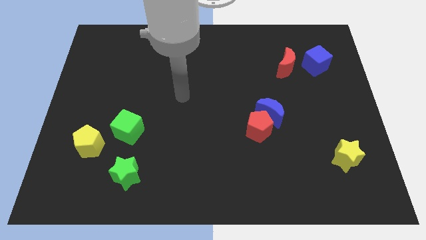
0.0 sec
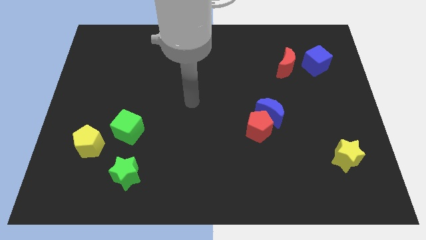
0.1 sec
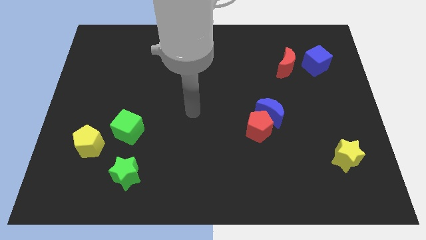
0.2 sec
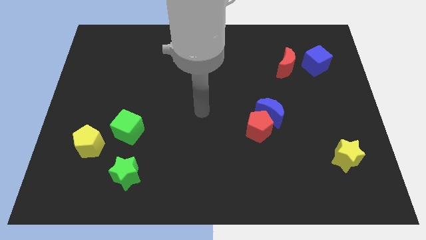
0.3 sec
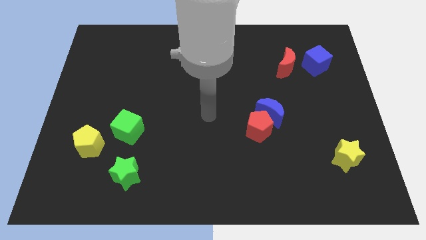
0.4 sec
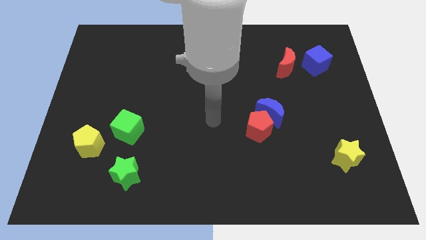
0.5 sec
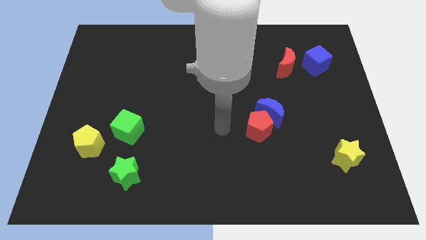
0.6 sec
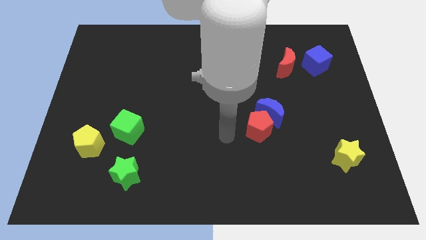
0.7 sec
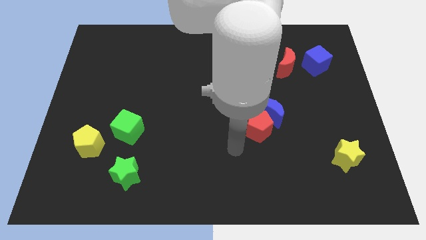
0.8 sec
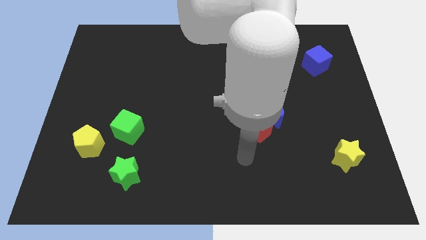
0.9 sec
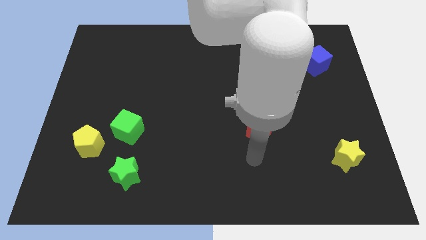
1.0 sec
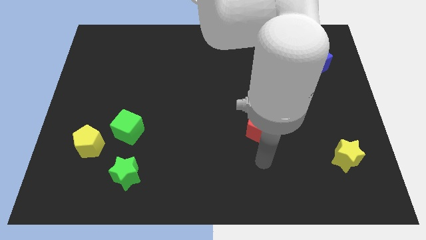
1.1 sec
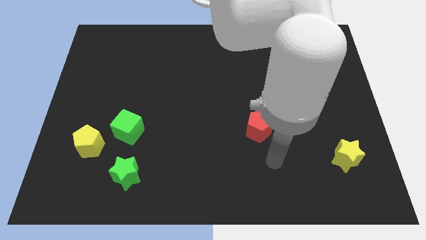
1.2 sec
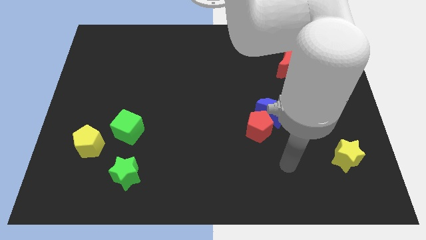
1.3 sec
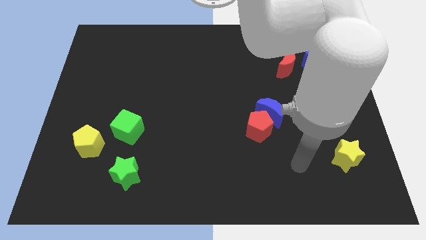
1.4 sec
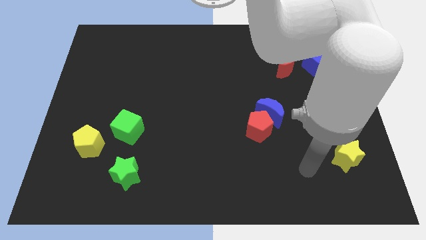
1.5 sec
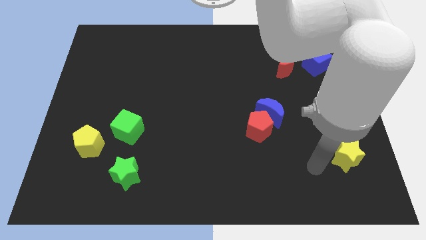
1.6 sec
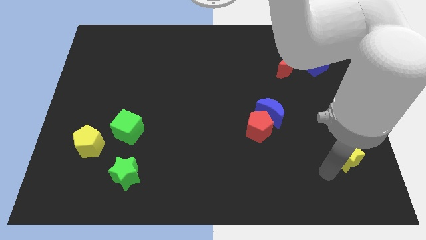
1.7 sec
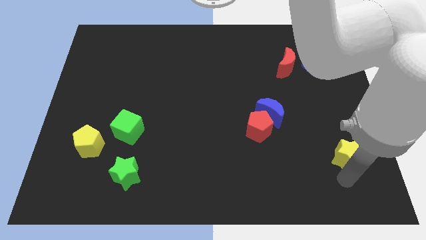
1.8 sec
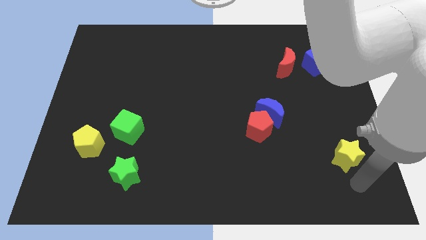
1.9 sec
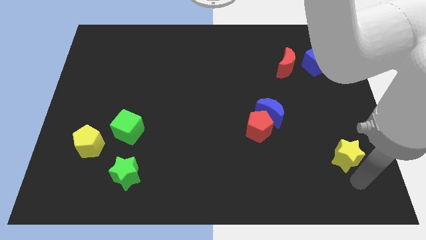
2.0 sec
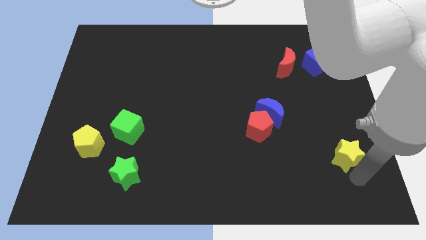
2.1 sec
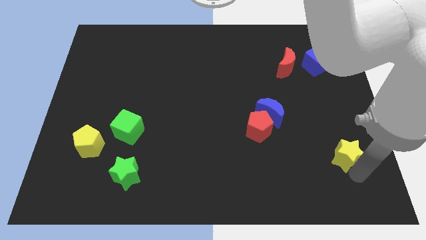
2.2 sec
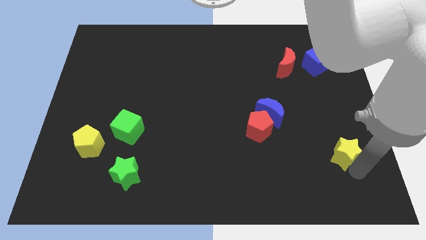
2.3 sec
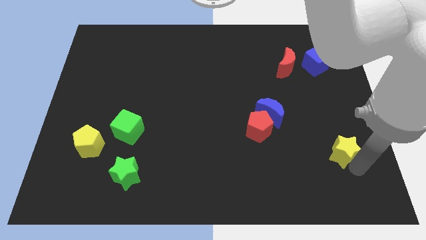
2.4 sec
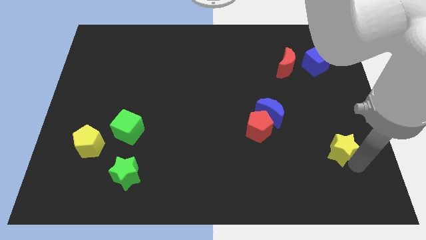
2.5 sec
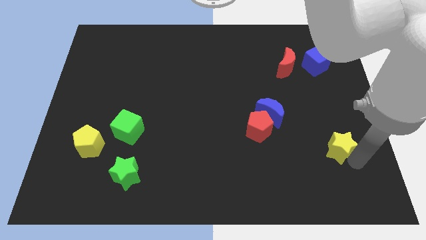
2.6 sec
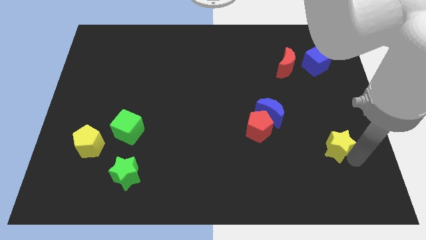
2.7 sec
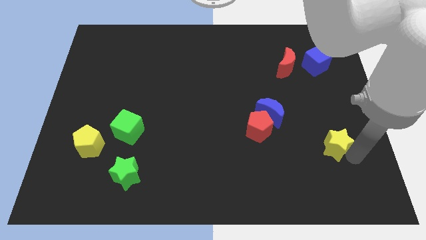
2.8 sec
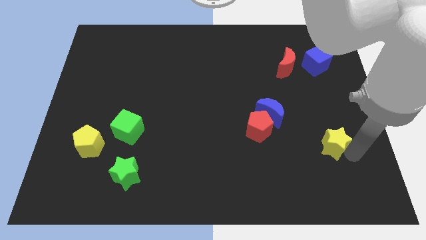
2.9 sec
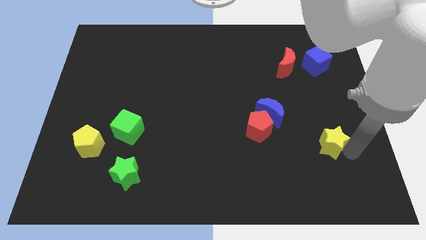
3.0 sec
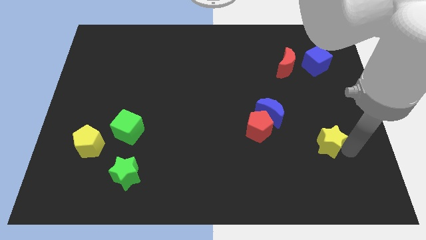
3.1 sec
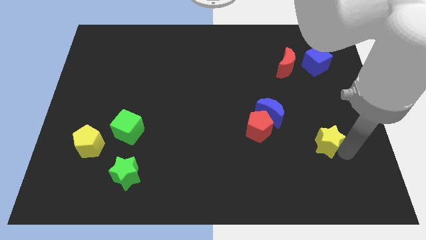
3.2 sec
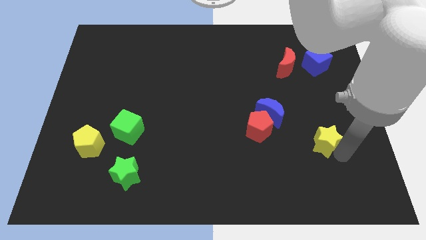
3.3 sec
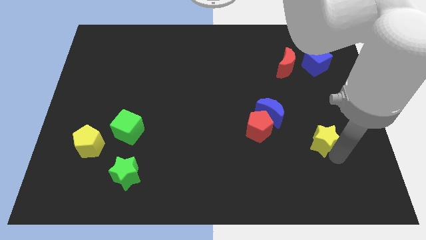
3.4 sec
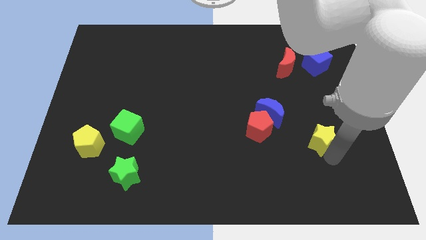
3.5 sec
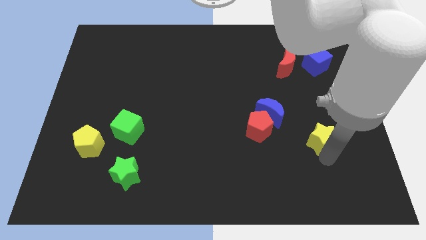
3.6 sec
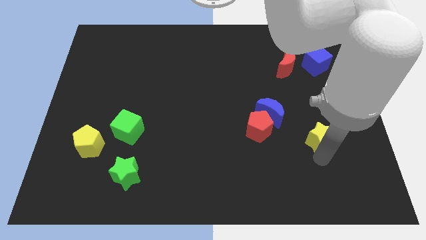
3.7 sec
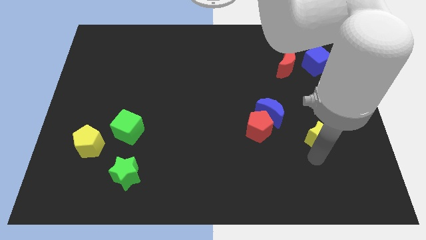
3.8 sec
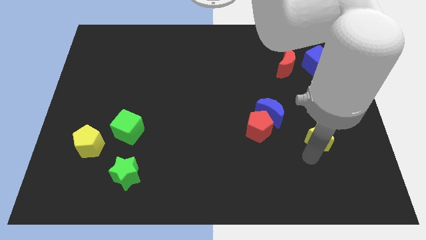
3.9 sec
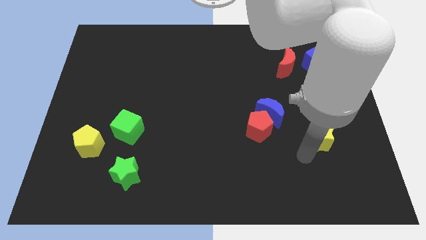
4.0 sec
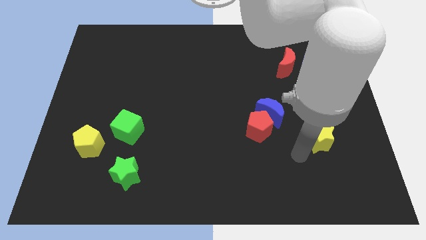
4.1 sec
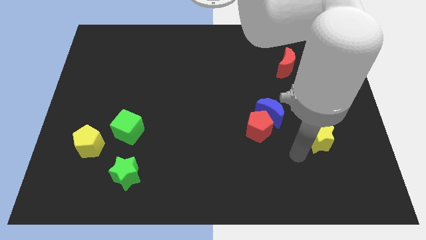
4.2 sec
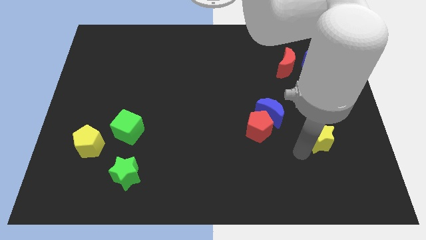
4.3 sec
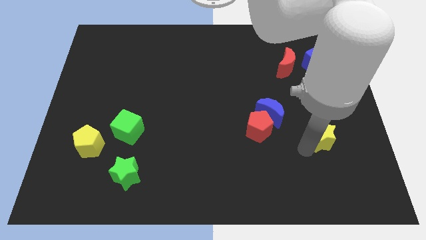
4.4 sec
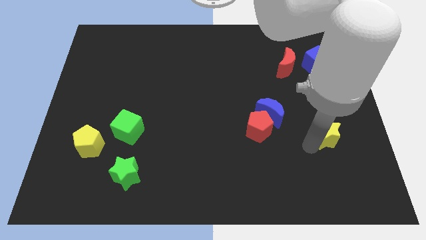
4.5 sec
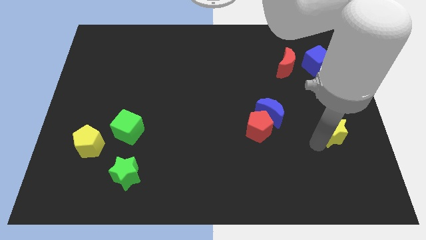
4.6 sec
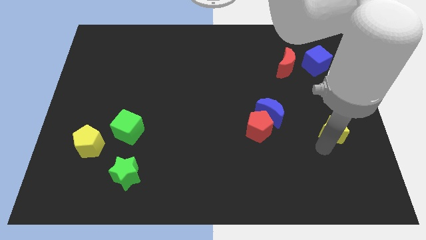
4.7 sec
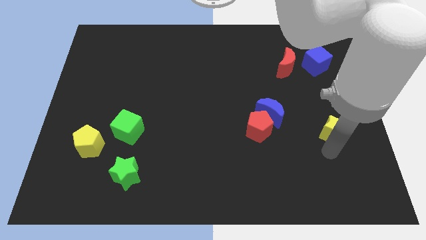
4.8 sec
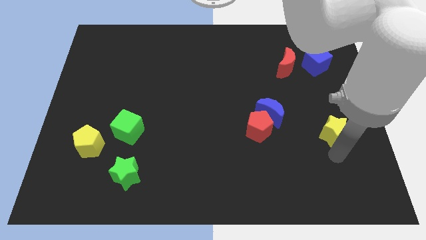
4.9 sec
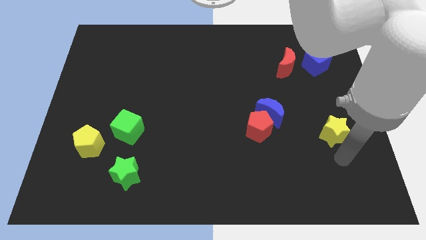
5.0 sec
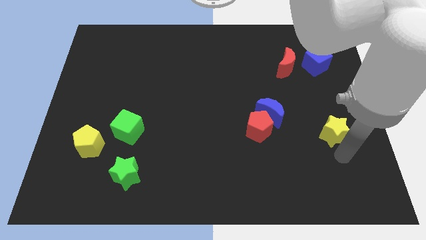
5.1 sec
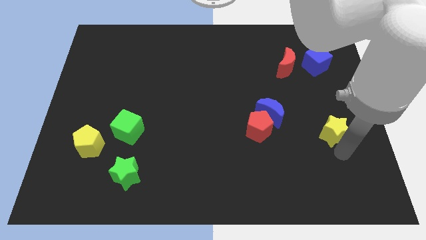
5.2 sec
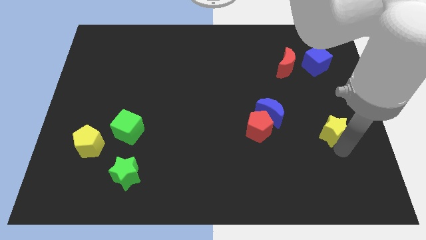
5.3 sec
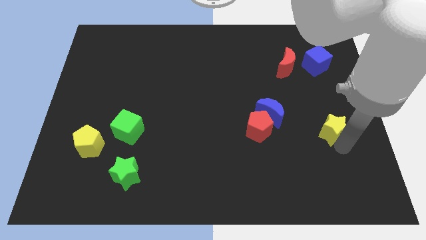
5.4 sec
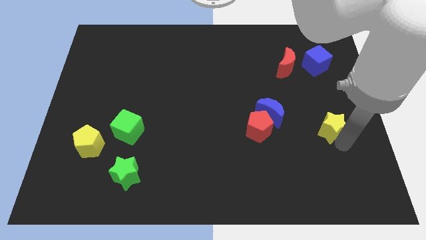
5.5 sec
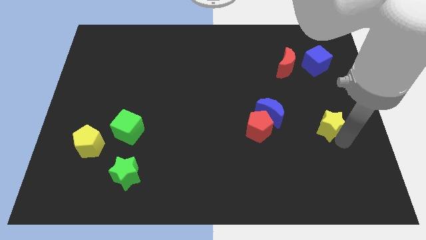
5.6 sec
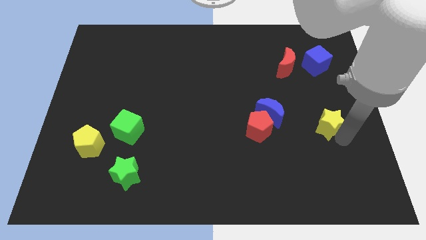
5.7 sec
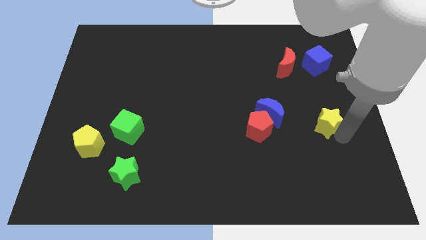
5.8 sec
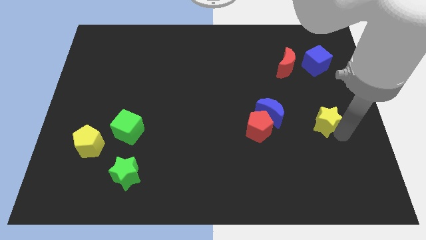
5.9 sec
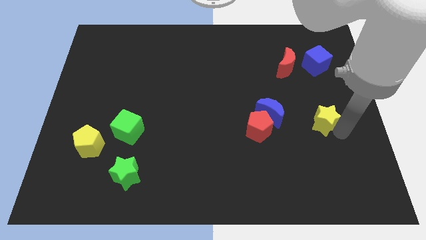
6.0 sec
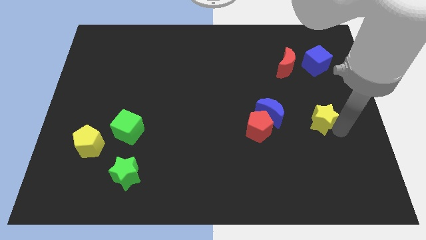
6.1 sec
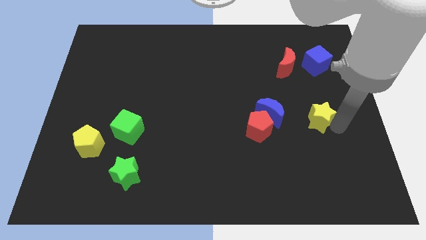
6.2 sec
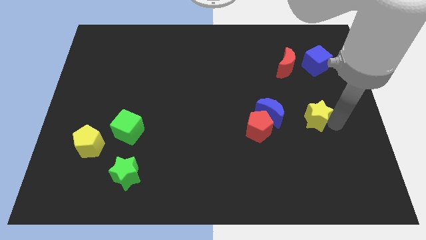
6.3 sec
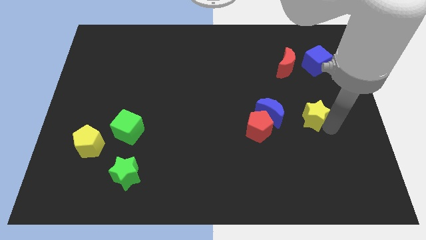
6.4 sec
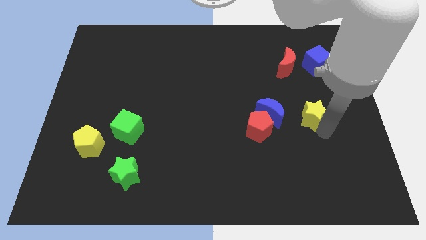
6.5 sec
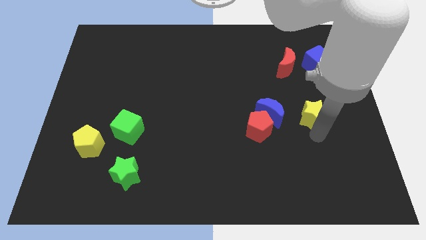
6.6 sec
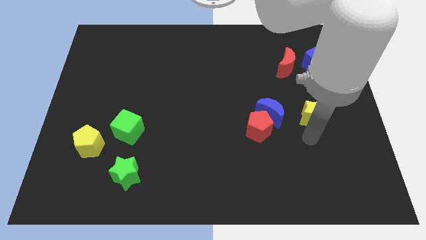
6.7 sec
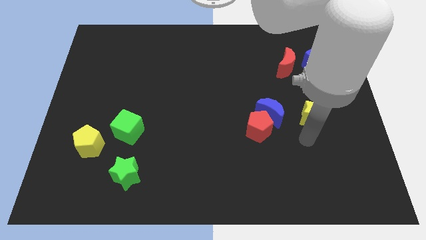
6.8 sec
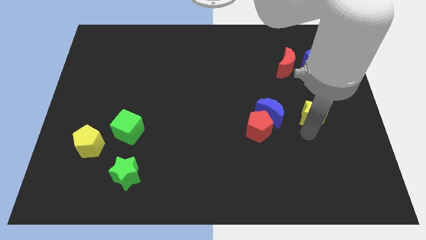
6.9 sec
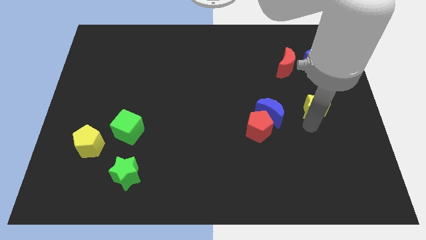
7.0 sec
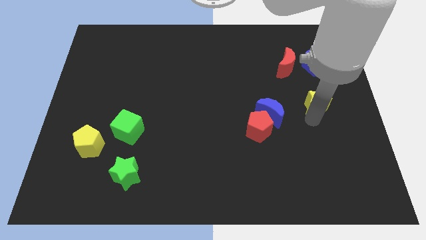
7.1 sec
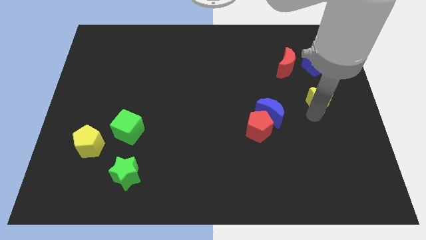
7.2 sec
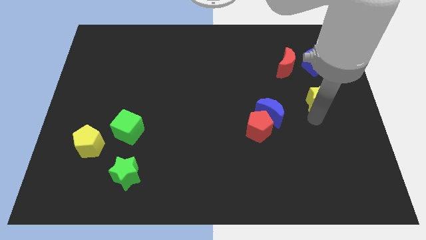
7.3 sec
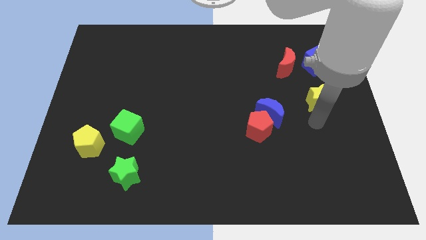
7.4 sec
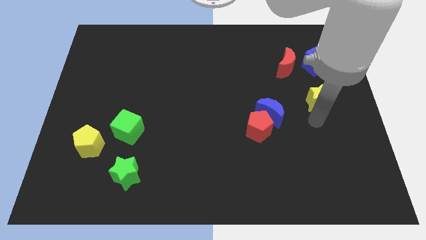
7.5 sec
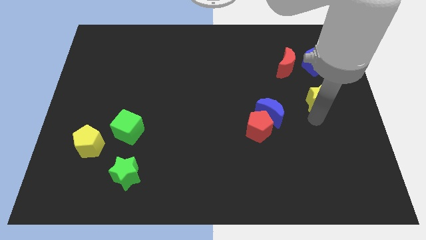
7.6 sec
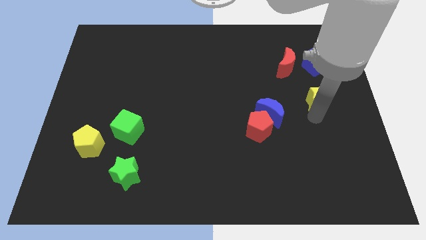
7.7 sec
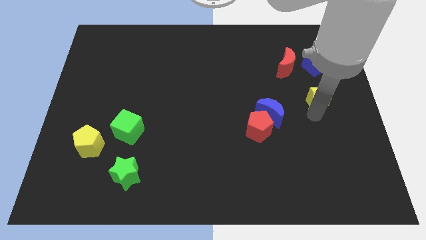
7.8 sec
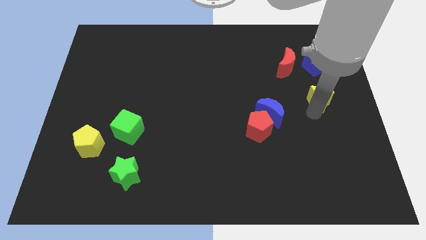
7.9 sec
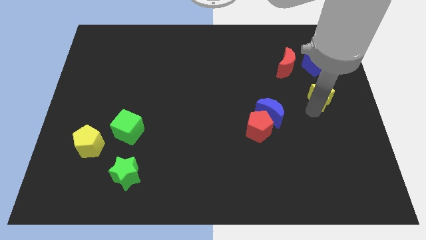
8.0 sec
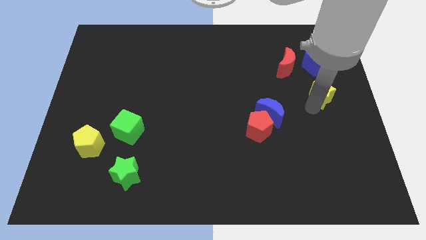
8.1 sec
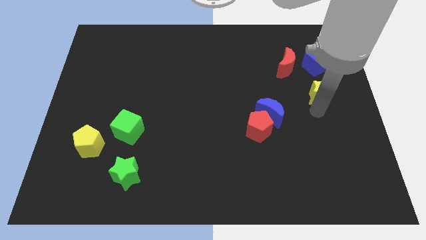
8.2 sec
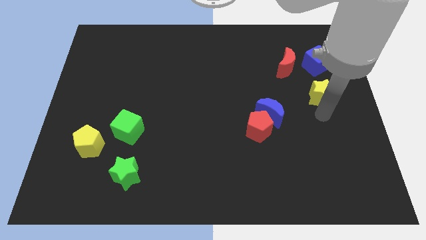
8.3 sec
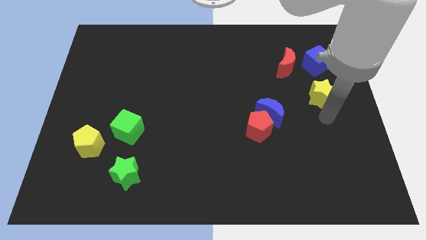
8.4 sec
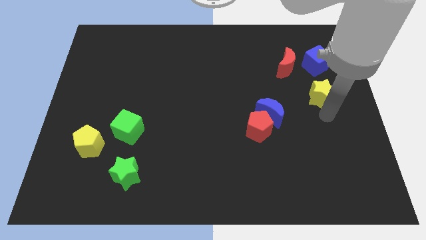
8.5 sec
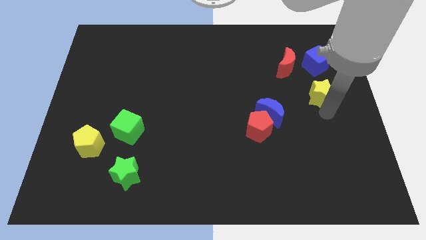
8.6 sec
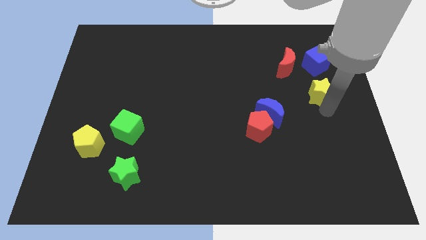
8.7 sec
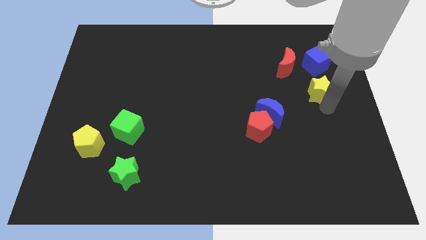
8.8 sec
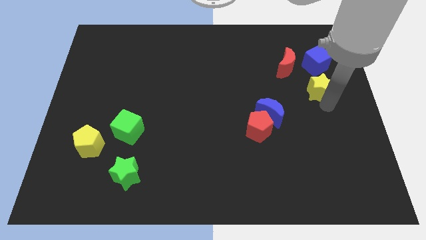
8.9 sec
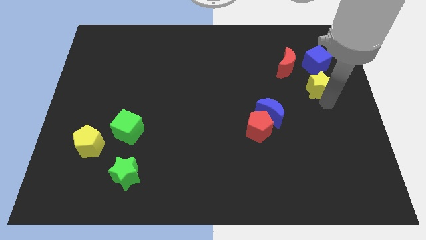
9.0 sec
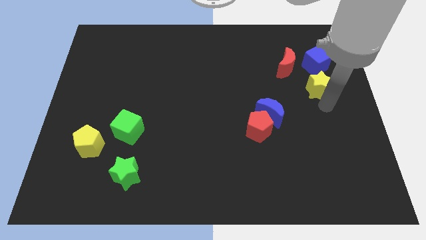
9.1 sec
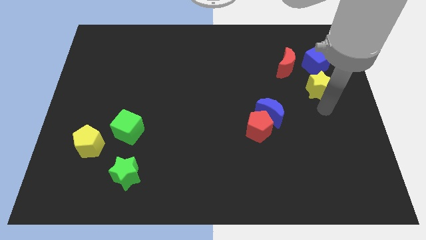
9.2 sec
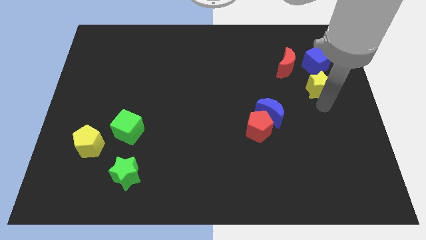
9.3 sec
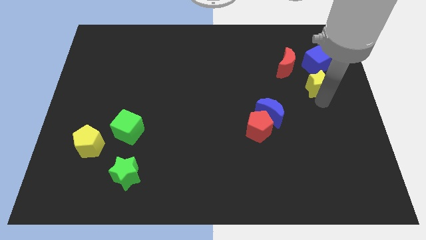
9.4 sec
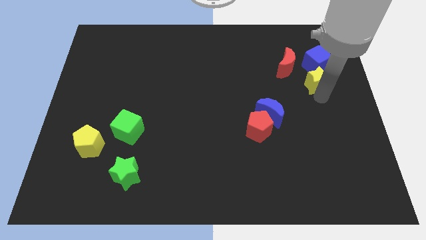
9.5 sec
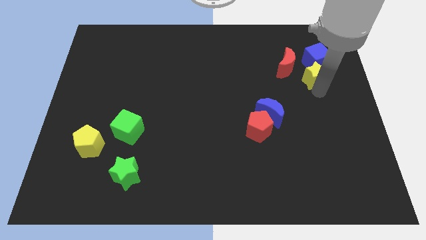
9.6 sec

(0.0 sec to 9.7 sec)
slide the yellow star towards the blue cube
